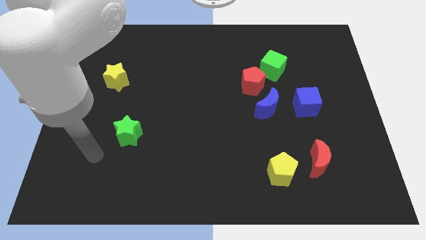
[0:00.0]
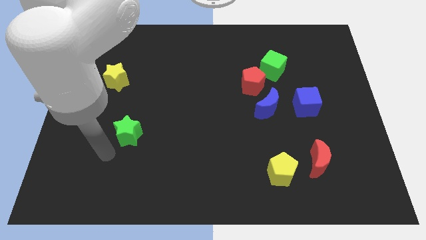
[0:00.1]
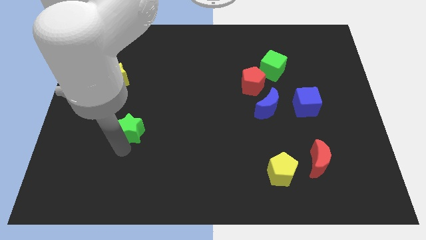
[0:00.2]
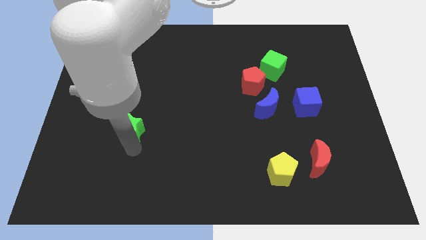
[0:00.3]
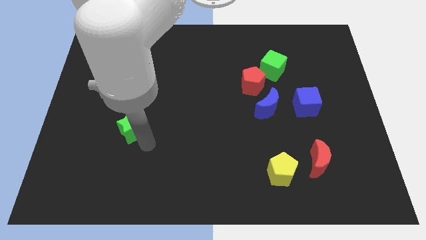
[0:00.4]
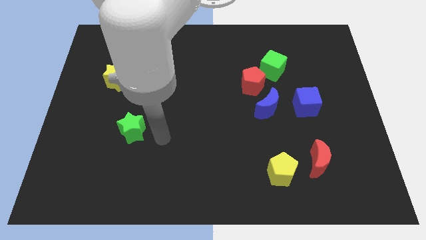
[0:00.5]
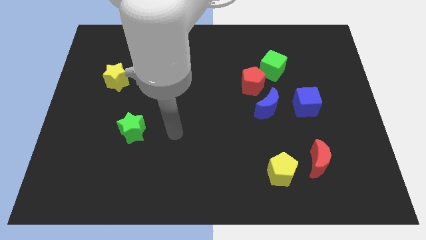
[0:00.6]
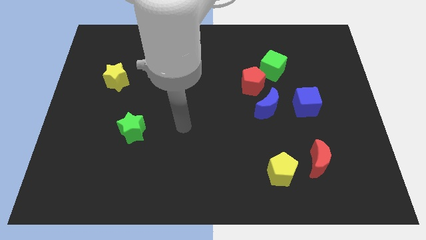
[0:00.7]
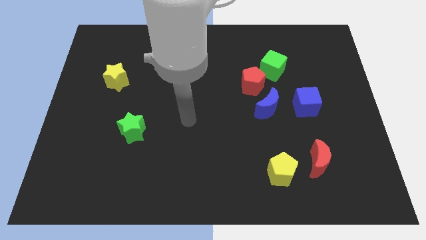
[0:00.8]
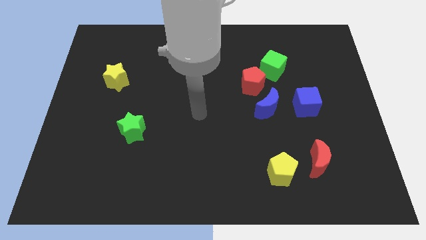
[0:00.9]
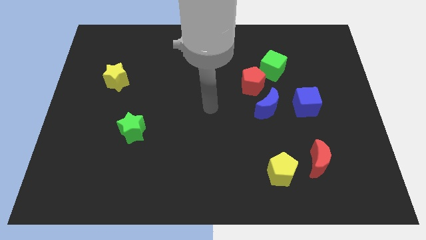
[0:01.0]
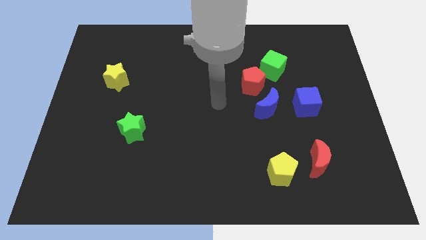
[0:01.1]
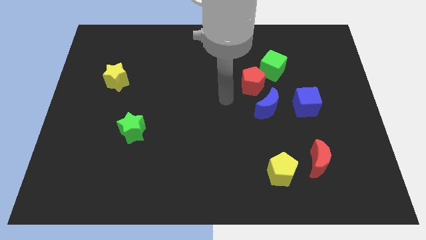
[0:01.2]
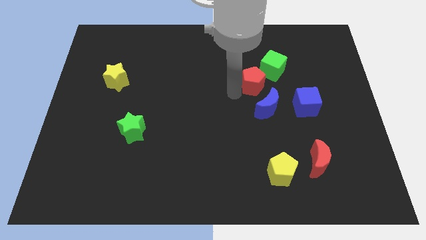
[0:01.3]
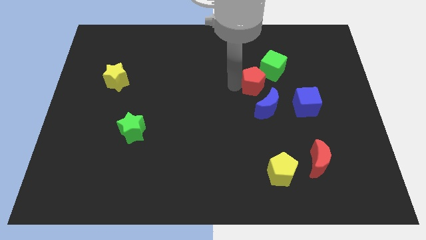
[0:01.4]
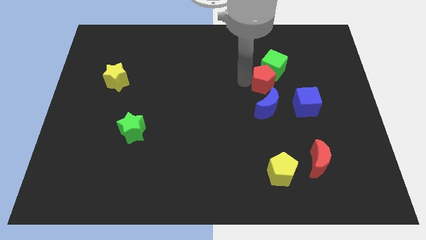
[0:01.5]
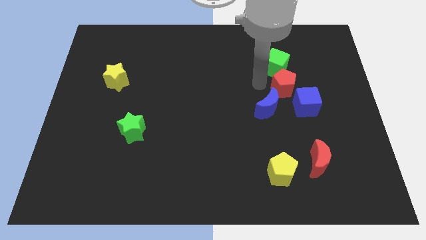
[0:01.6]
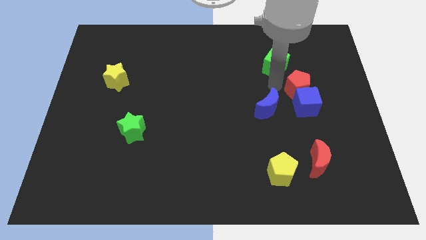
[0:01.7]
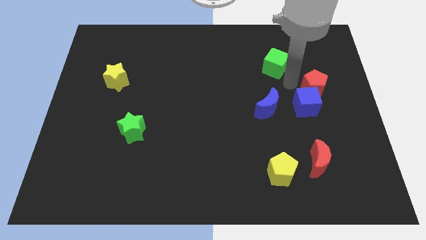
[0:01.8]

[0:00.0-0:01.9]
separate the green cube from the red pentagon

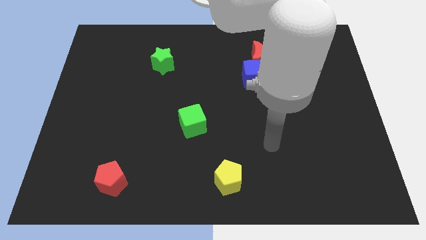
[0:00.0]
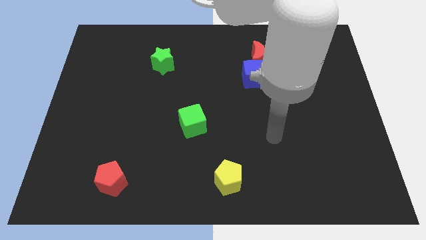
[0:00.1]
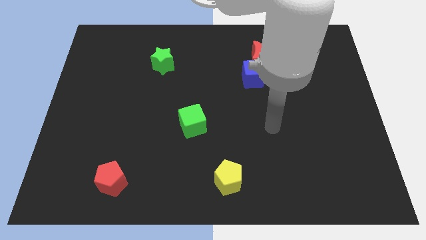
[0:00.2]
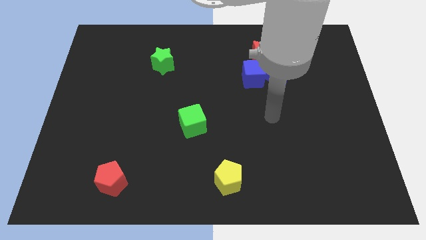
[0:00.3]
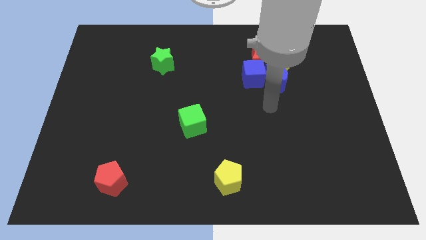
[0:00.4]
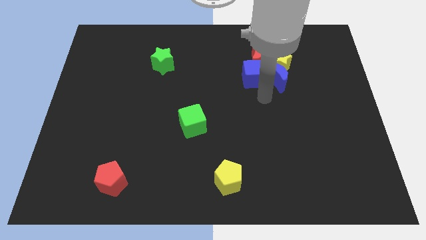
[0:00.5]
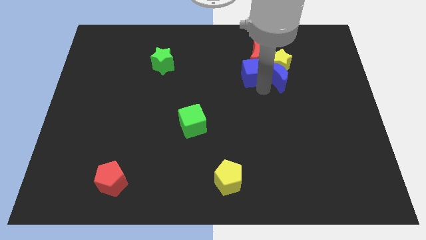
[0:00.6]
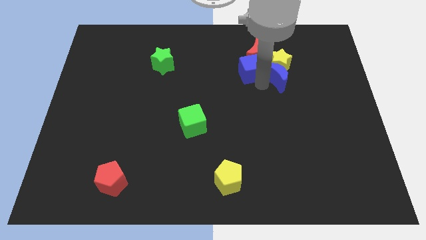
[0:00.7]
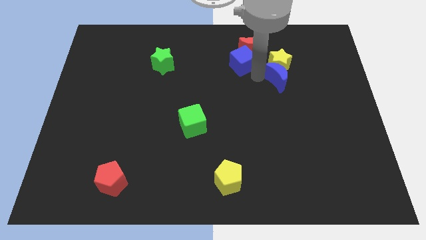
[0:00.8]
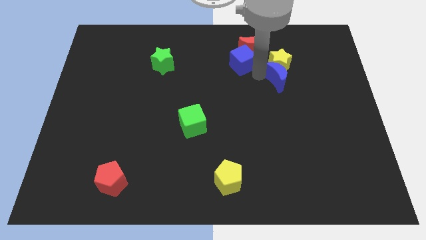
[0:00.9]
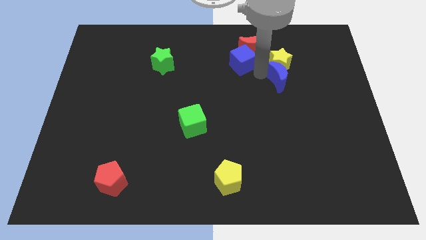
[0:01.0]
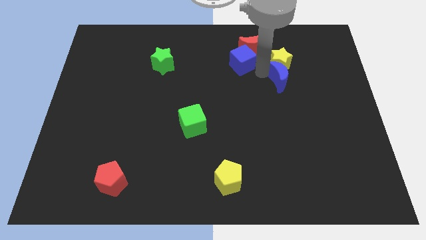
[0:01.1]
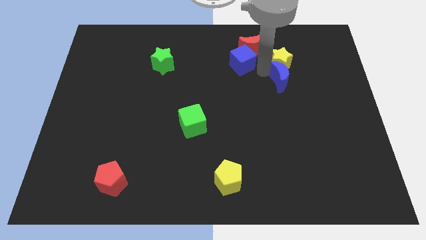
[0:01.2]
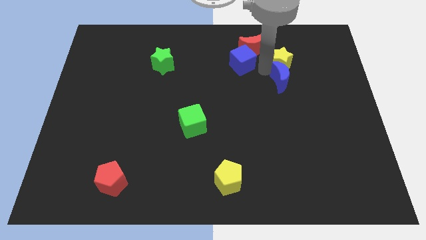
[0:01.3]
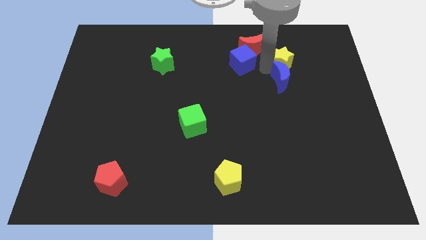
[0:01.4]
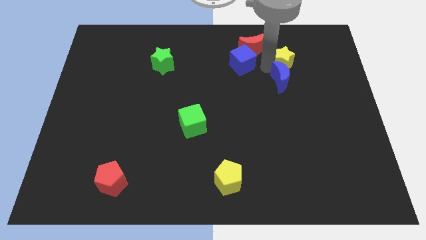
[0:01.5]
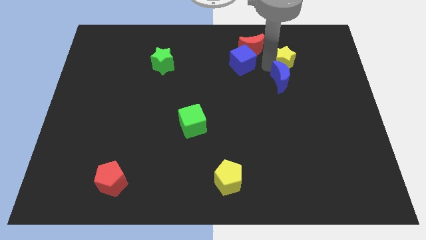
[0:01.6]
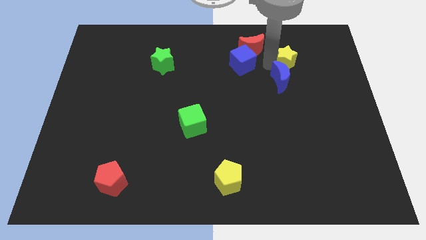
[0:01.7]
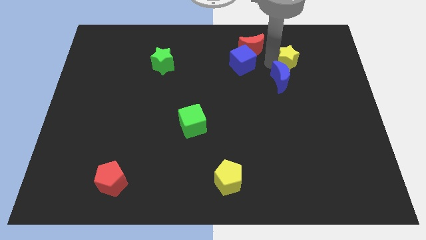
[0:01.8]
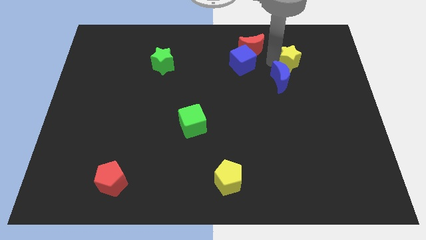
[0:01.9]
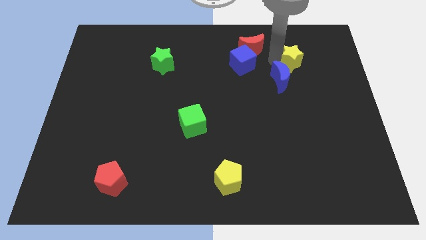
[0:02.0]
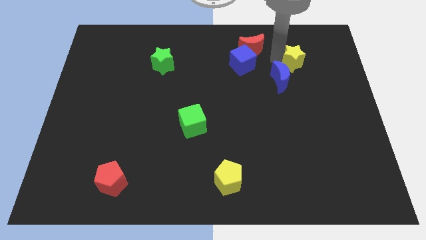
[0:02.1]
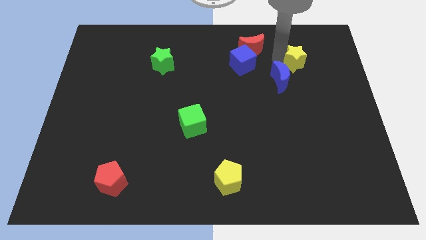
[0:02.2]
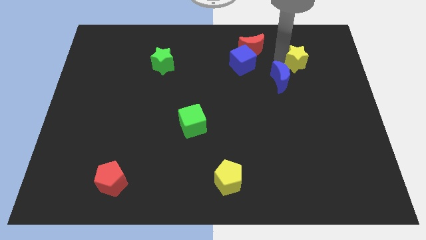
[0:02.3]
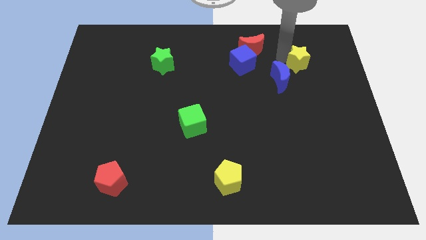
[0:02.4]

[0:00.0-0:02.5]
move the yellow star away from the group

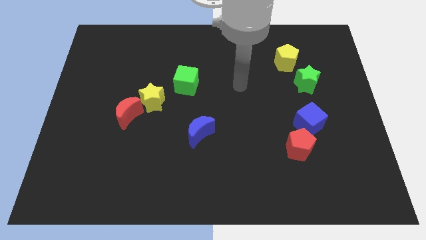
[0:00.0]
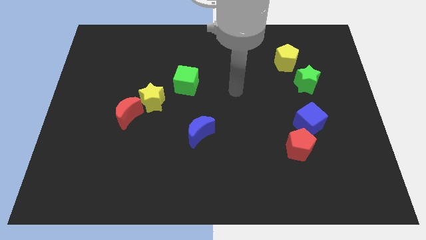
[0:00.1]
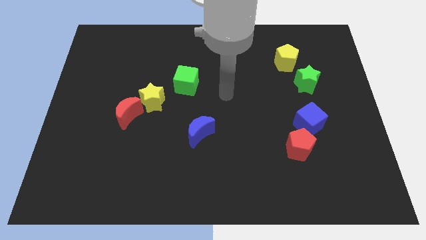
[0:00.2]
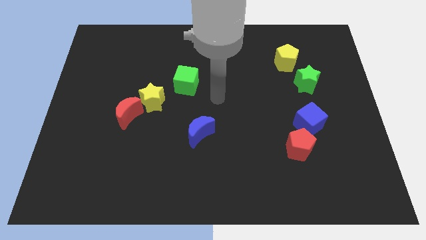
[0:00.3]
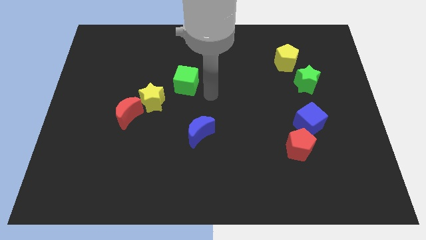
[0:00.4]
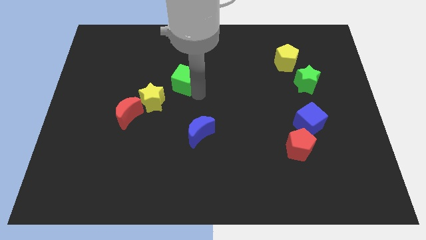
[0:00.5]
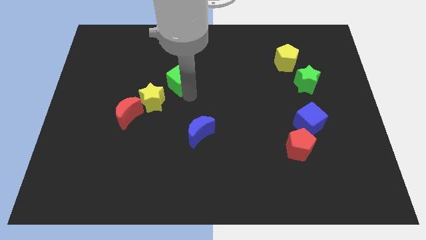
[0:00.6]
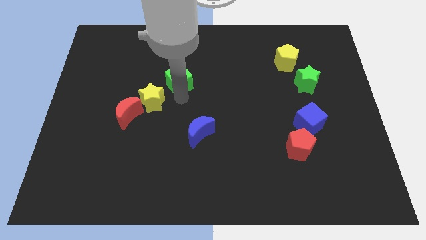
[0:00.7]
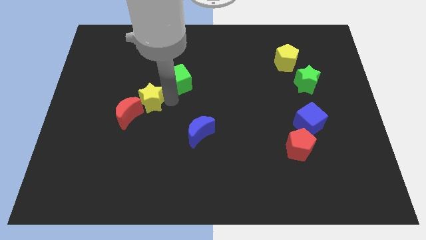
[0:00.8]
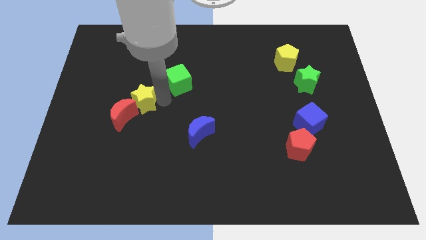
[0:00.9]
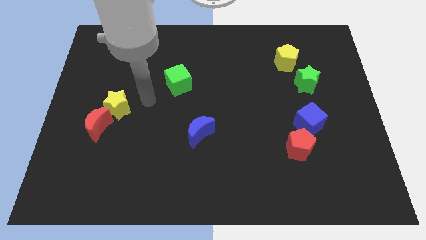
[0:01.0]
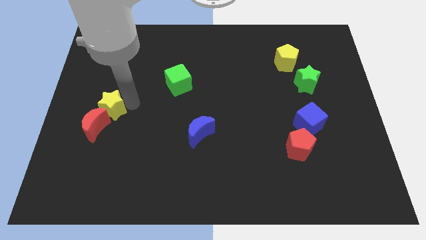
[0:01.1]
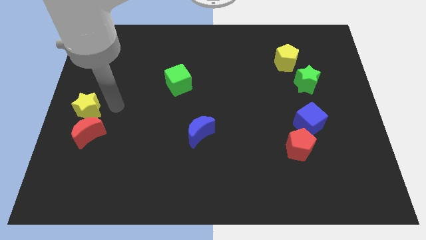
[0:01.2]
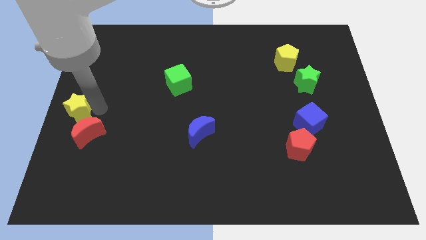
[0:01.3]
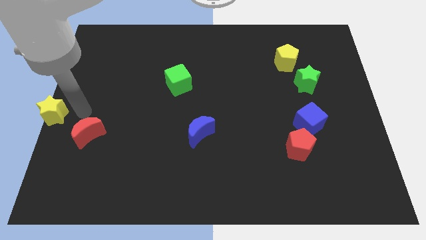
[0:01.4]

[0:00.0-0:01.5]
pull the red moon apart from the yellow star

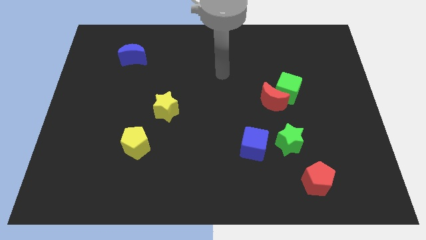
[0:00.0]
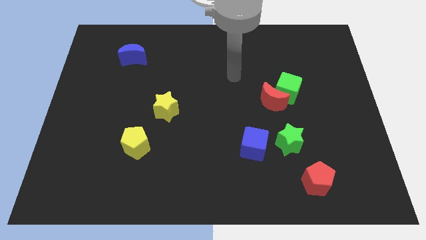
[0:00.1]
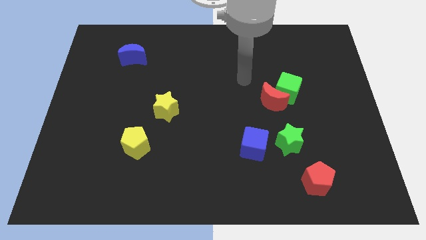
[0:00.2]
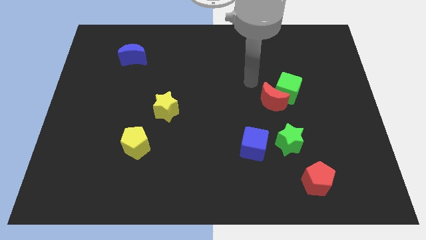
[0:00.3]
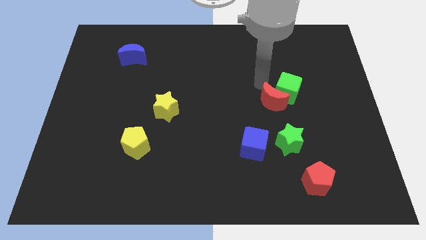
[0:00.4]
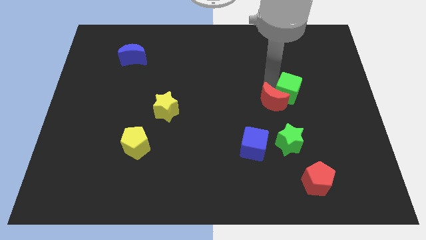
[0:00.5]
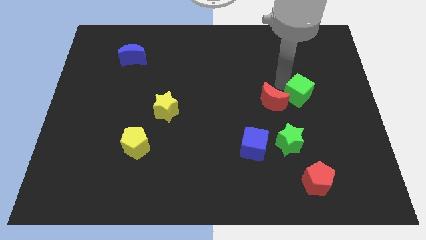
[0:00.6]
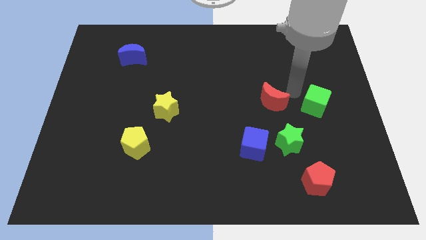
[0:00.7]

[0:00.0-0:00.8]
separate the red moon from the green cube

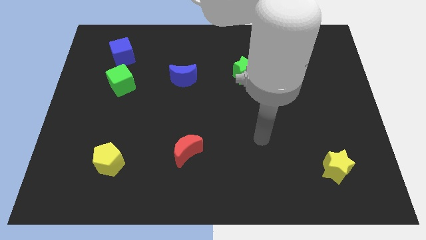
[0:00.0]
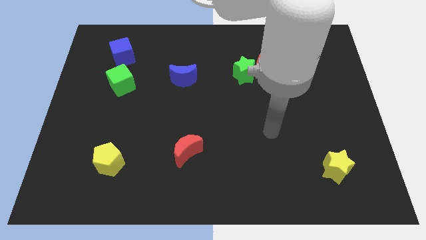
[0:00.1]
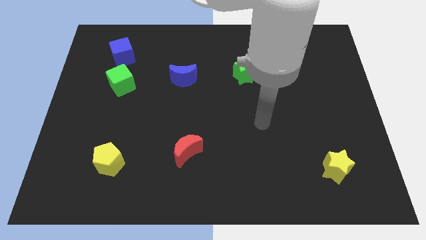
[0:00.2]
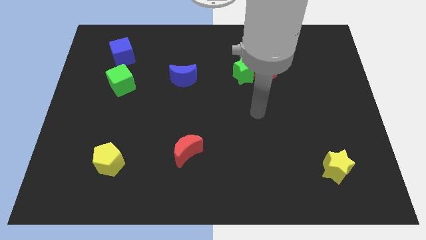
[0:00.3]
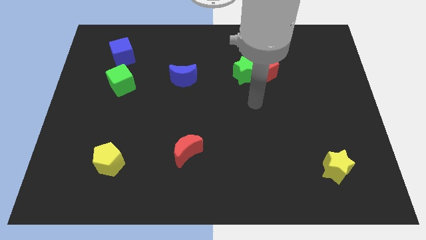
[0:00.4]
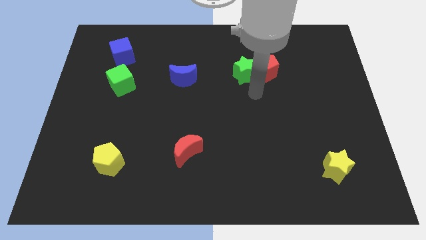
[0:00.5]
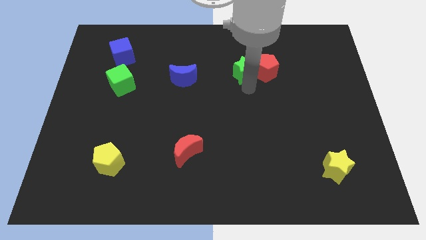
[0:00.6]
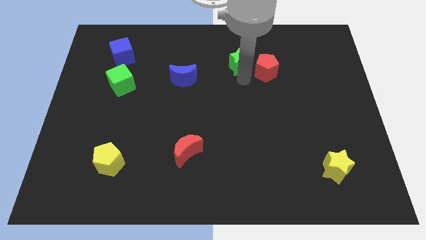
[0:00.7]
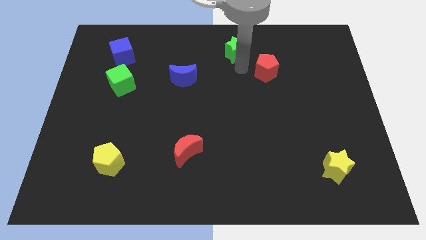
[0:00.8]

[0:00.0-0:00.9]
move the red pentagon away from the green star

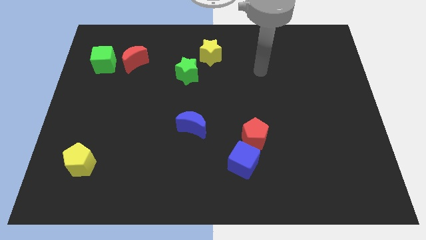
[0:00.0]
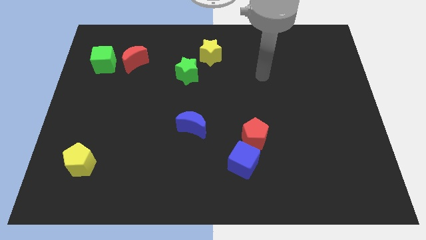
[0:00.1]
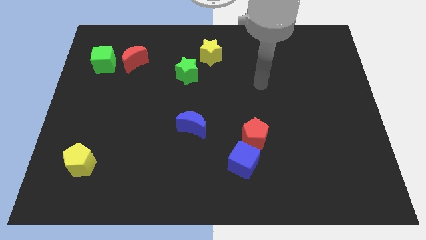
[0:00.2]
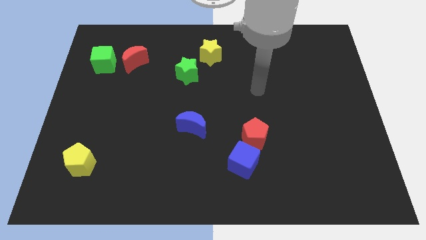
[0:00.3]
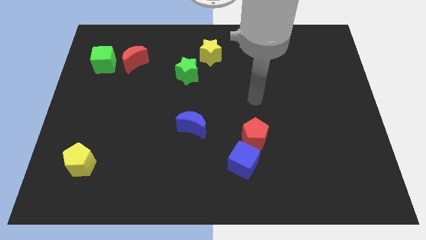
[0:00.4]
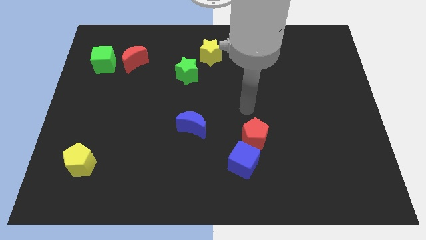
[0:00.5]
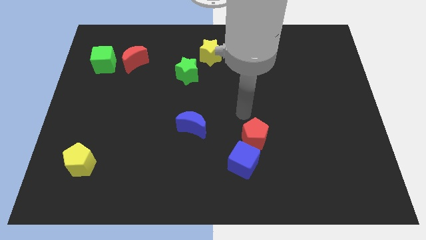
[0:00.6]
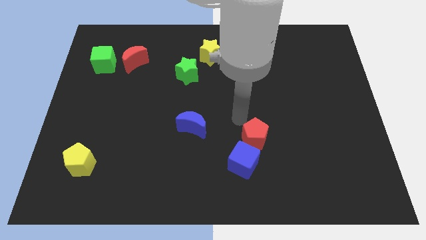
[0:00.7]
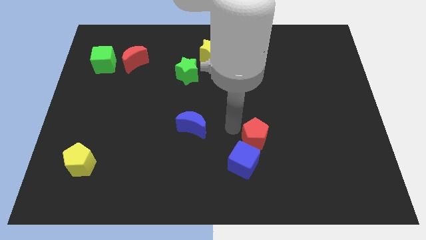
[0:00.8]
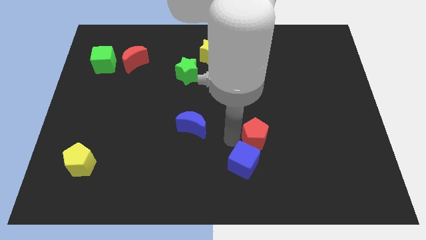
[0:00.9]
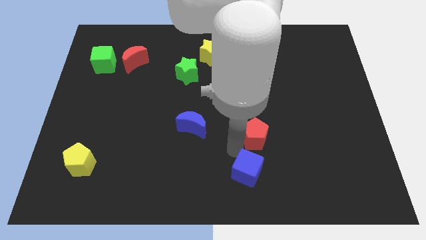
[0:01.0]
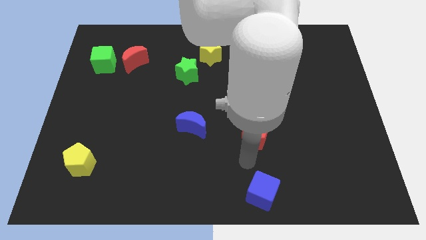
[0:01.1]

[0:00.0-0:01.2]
move the red pentagon away from the blue cube

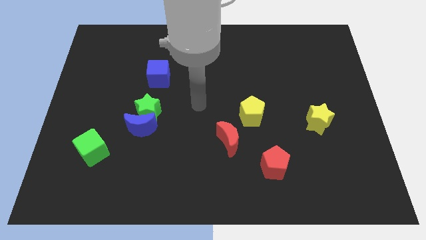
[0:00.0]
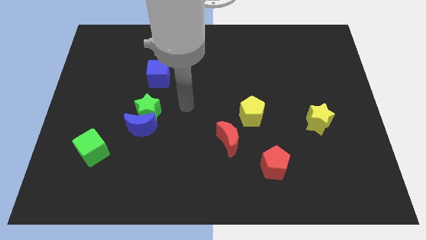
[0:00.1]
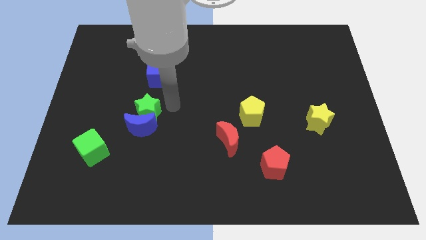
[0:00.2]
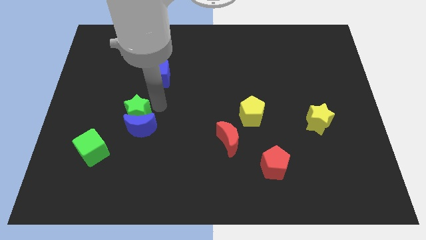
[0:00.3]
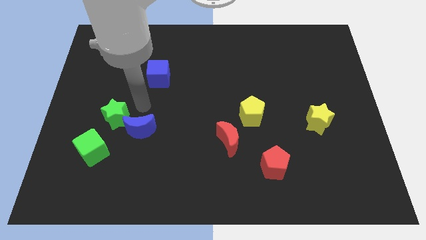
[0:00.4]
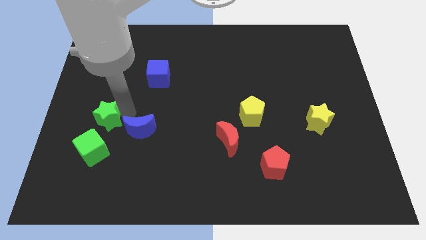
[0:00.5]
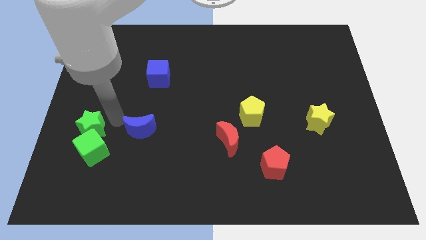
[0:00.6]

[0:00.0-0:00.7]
separate the blue moon from the green star
